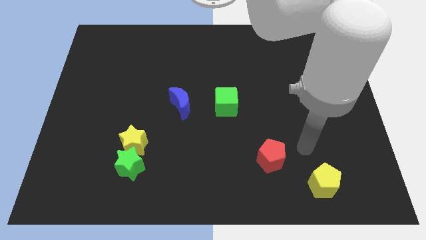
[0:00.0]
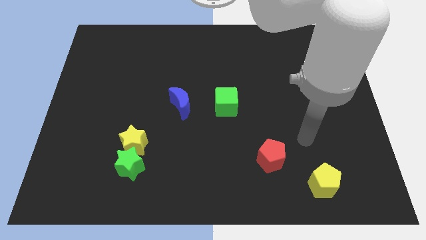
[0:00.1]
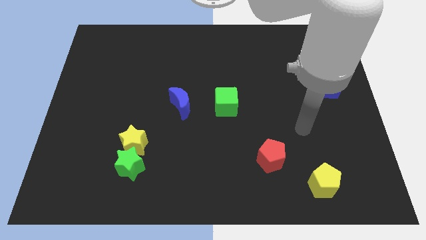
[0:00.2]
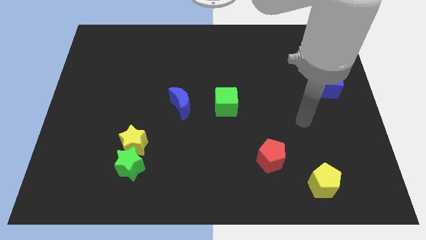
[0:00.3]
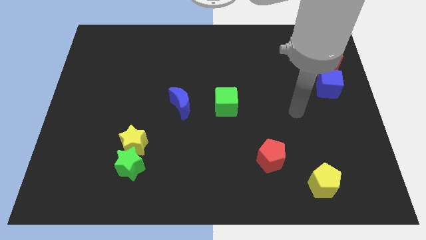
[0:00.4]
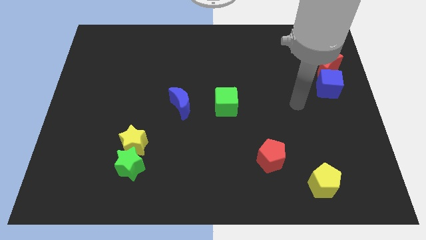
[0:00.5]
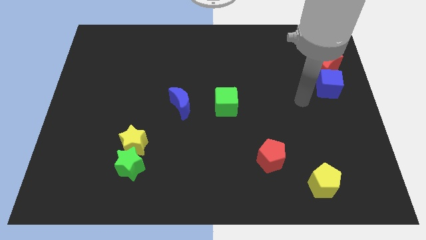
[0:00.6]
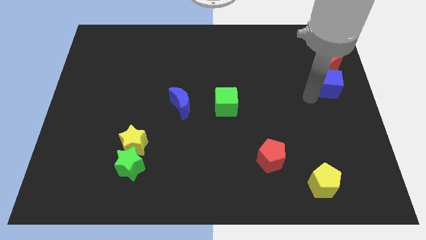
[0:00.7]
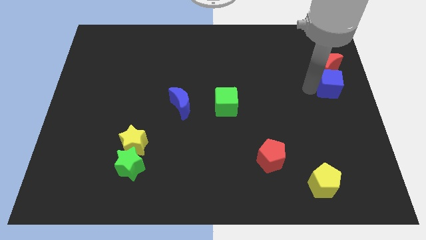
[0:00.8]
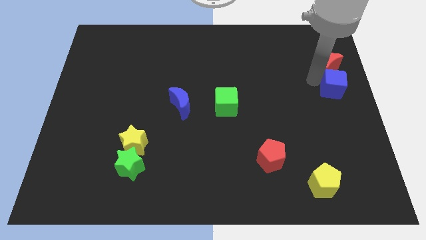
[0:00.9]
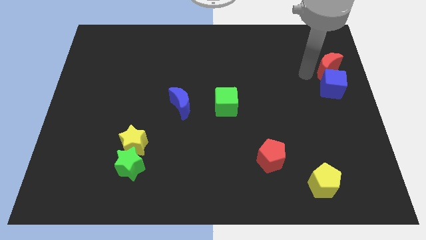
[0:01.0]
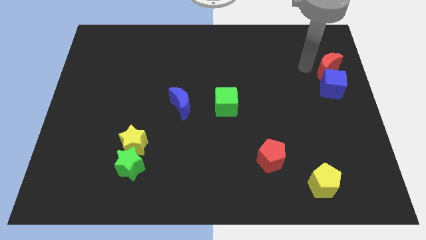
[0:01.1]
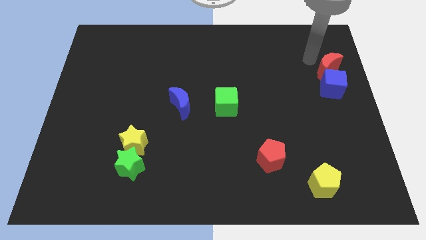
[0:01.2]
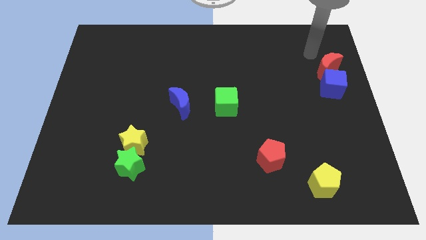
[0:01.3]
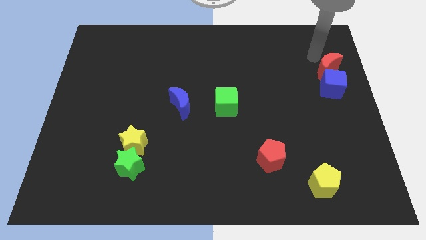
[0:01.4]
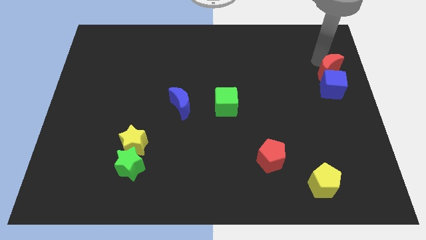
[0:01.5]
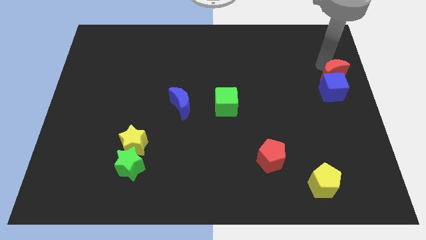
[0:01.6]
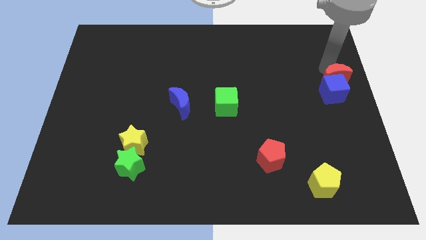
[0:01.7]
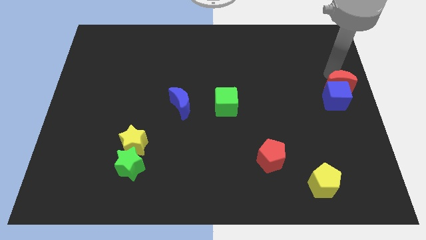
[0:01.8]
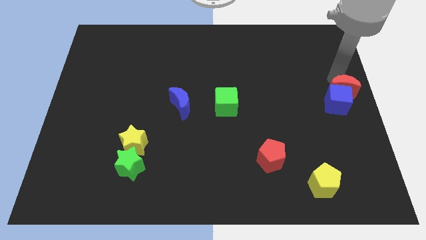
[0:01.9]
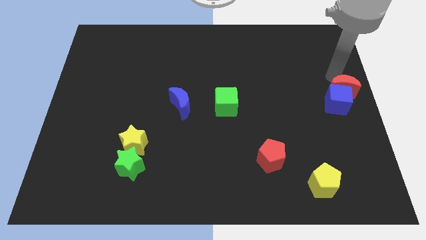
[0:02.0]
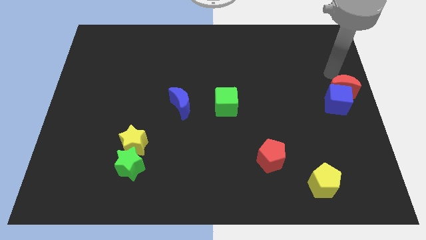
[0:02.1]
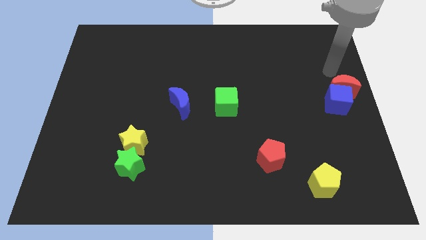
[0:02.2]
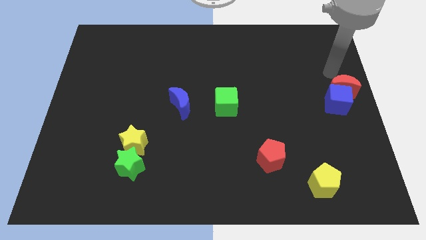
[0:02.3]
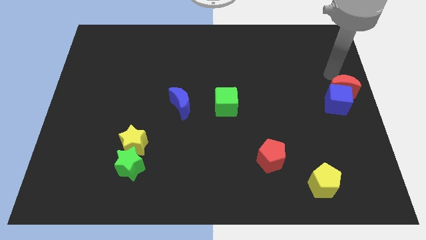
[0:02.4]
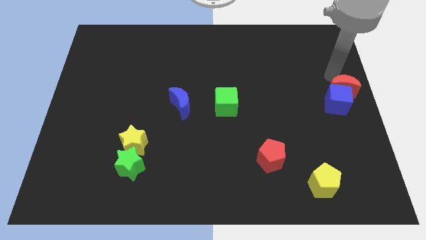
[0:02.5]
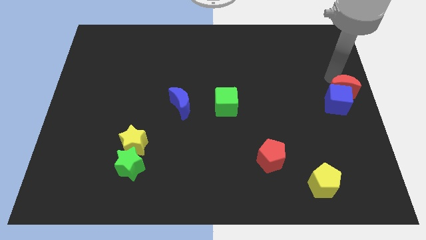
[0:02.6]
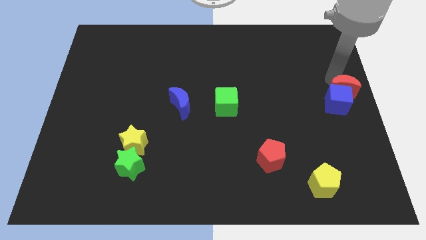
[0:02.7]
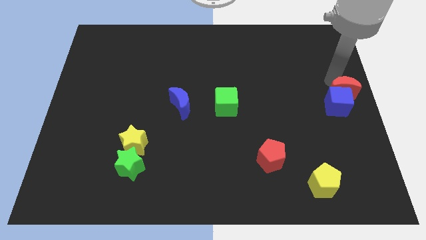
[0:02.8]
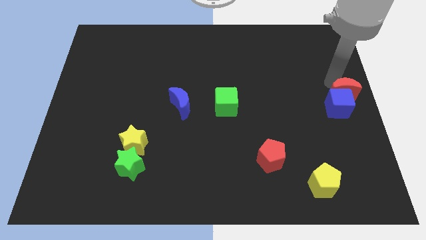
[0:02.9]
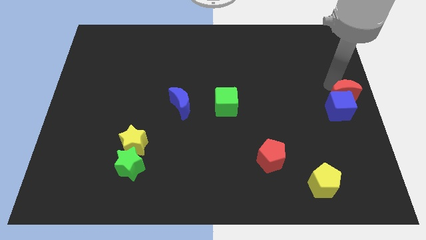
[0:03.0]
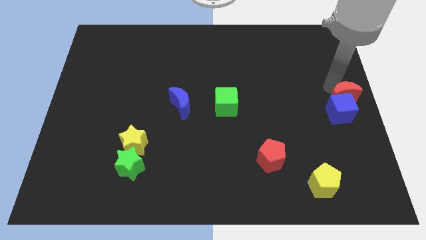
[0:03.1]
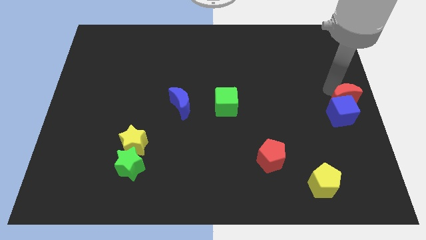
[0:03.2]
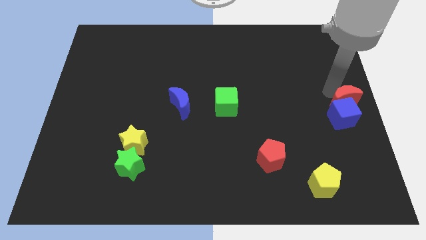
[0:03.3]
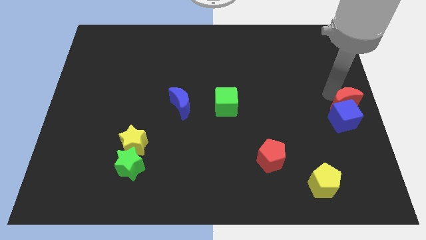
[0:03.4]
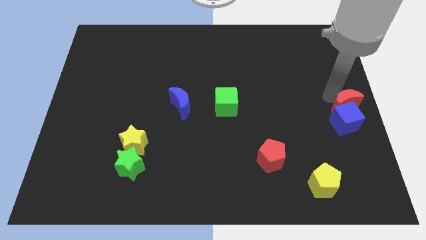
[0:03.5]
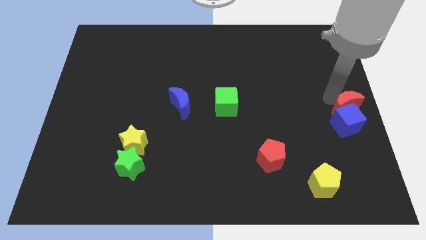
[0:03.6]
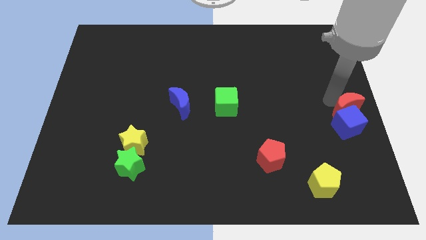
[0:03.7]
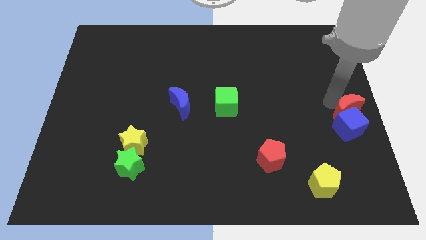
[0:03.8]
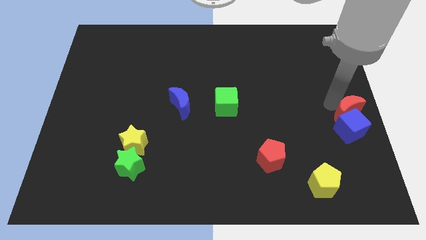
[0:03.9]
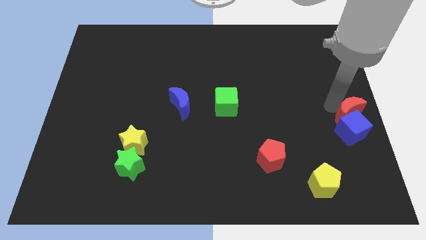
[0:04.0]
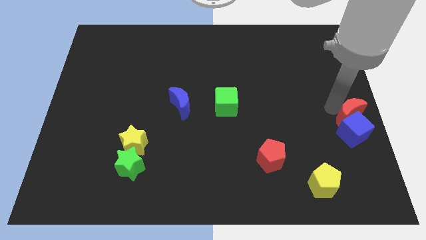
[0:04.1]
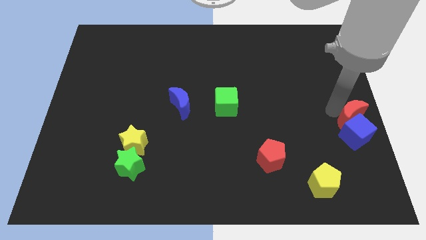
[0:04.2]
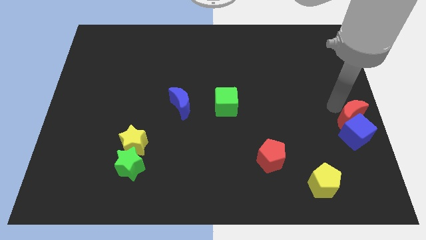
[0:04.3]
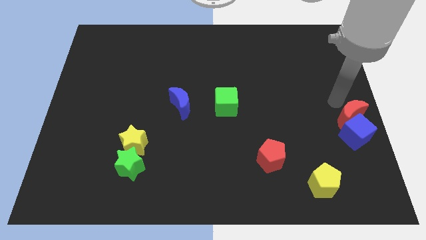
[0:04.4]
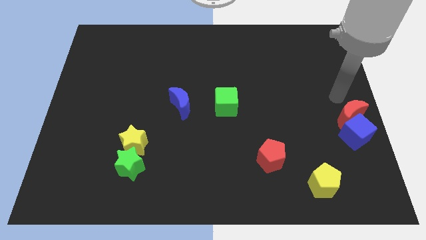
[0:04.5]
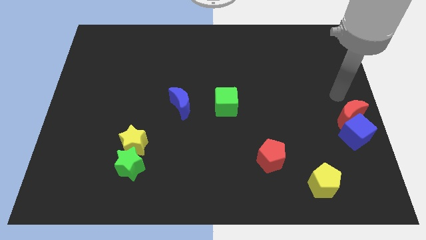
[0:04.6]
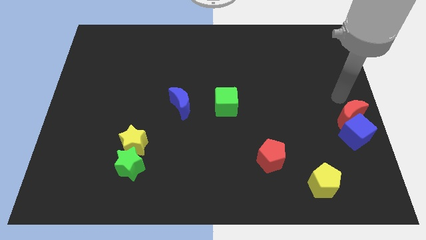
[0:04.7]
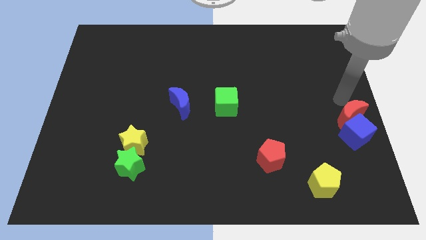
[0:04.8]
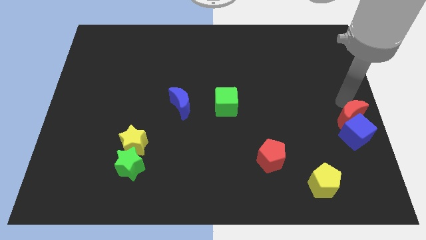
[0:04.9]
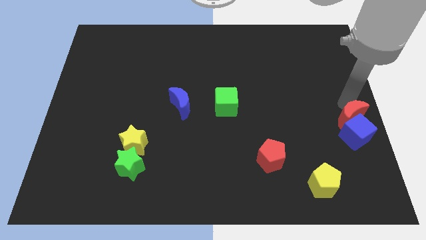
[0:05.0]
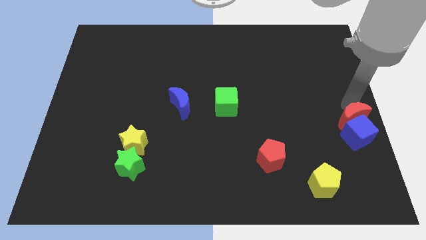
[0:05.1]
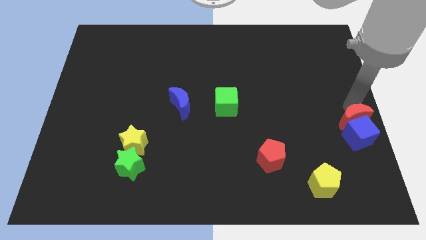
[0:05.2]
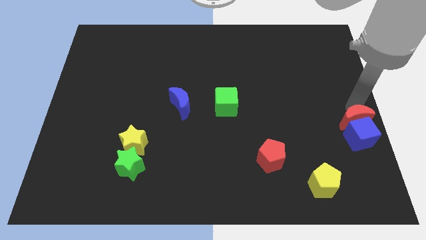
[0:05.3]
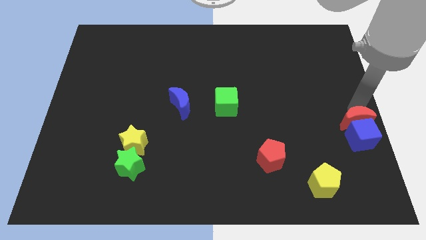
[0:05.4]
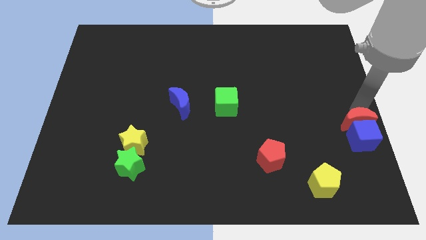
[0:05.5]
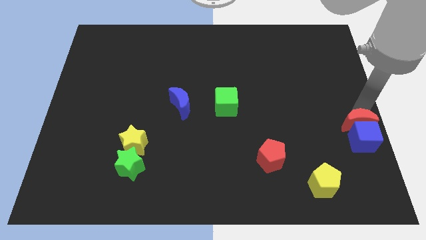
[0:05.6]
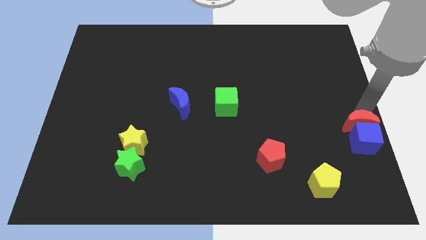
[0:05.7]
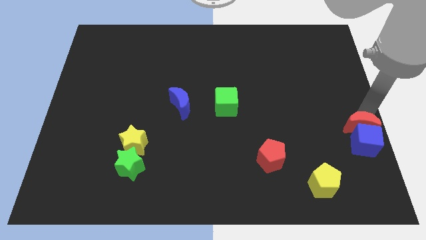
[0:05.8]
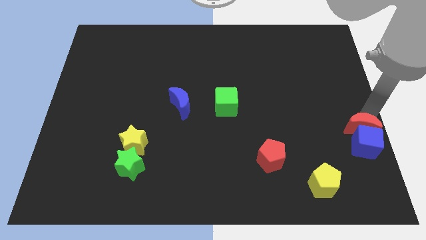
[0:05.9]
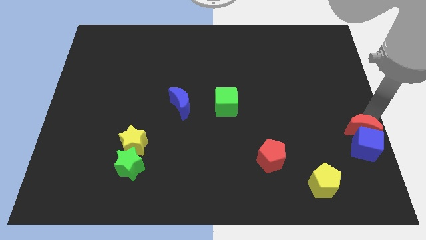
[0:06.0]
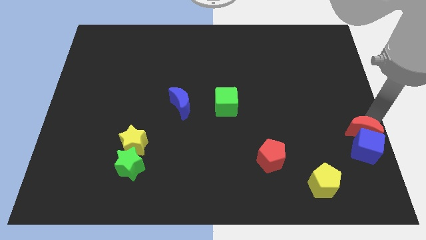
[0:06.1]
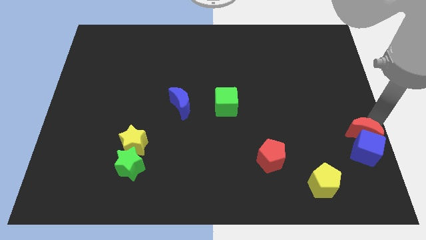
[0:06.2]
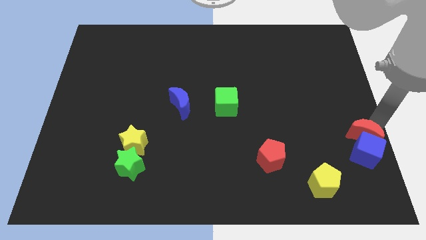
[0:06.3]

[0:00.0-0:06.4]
slide the red moon down

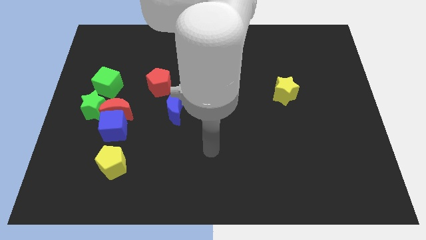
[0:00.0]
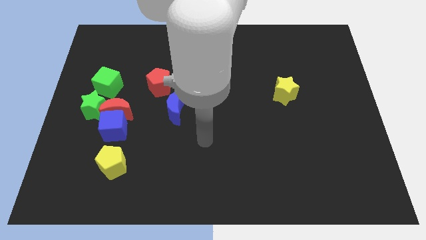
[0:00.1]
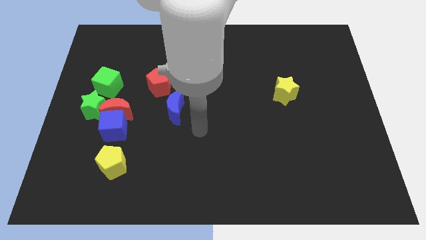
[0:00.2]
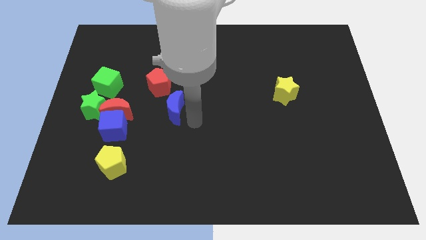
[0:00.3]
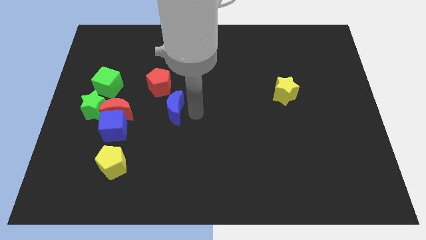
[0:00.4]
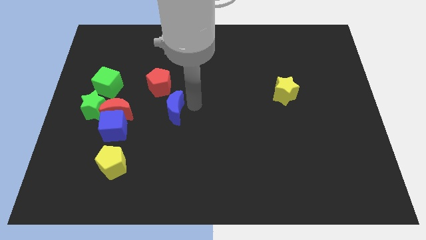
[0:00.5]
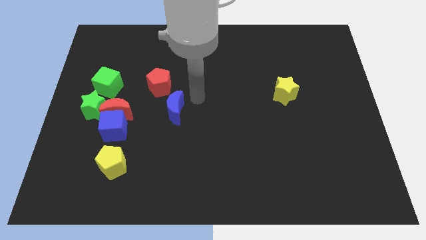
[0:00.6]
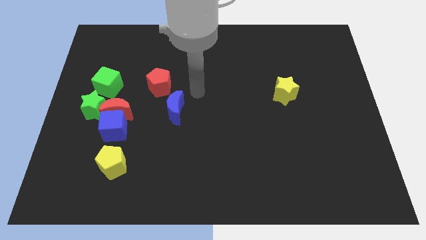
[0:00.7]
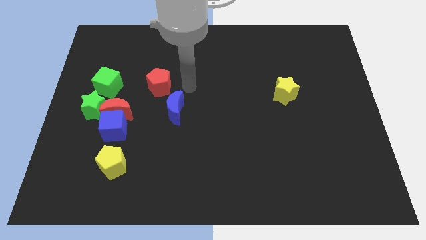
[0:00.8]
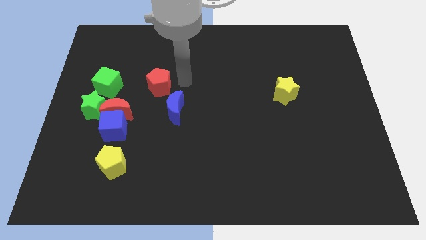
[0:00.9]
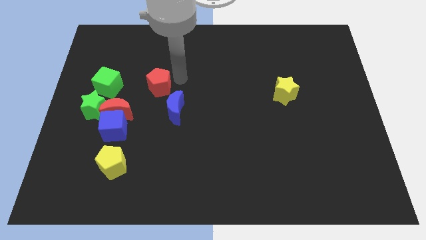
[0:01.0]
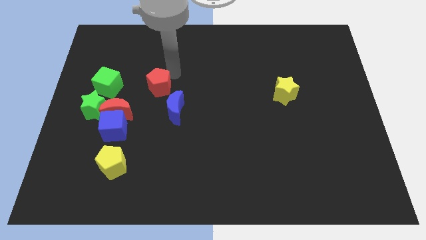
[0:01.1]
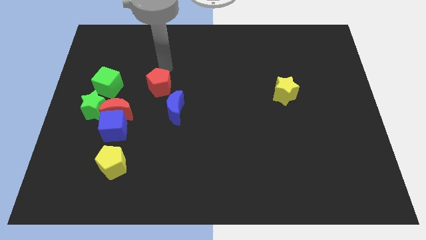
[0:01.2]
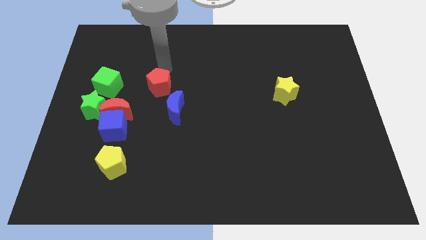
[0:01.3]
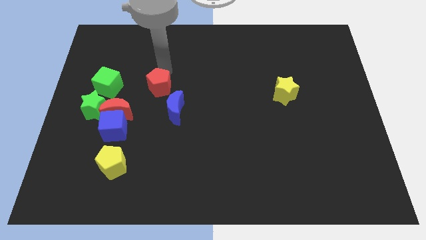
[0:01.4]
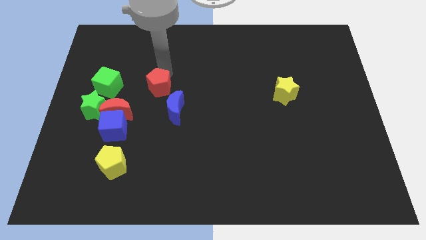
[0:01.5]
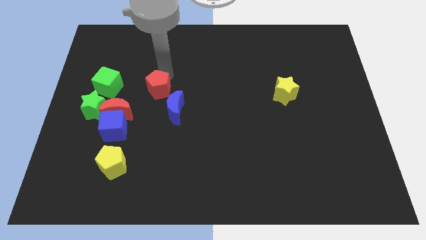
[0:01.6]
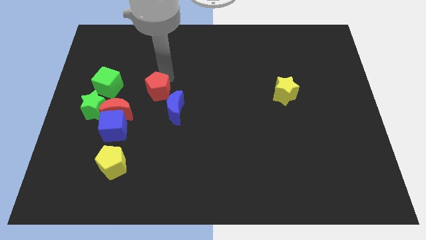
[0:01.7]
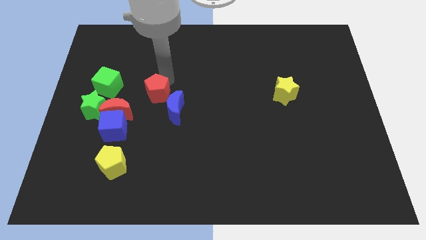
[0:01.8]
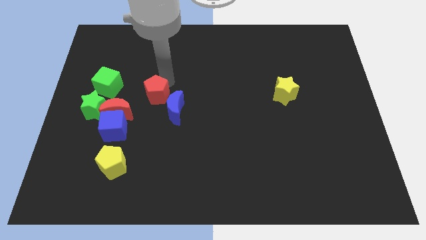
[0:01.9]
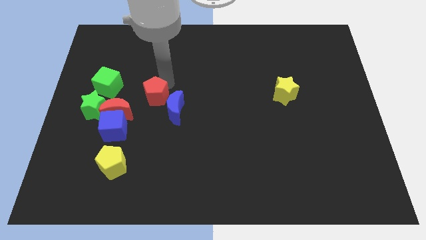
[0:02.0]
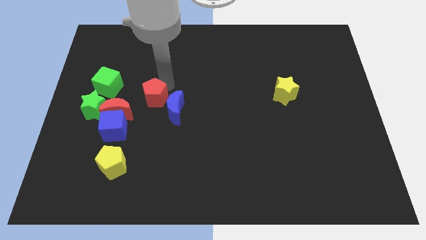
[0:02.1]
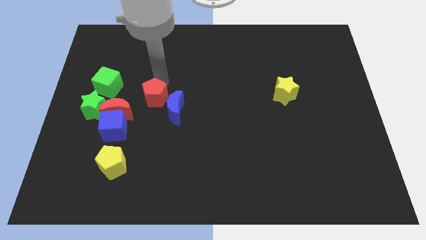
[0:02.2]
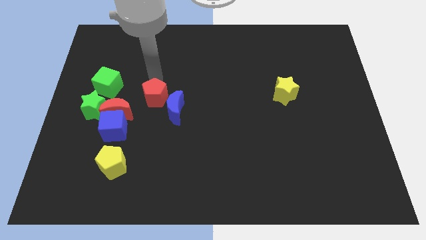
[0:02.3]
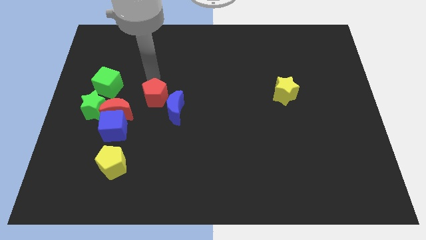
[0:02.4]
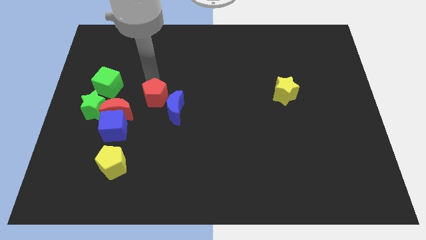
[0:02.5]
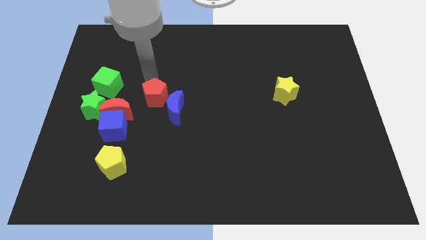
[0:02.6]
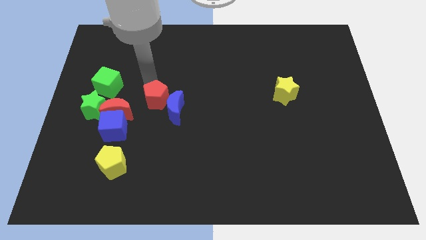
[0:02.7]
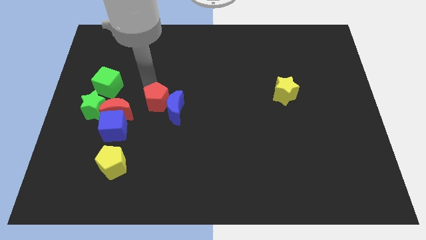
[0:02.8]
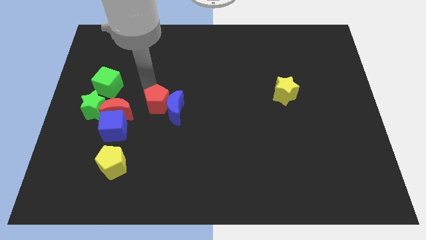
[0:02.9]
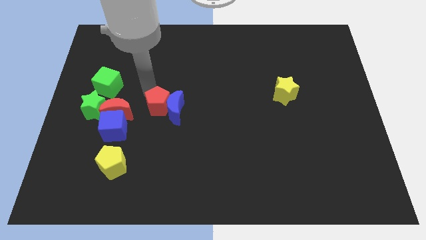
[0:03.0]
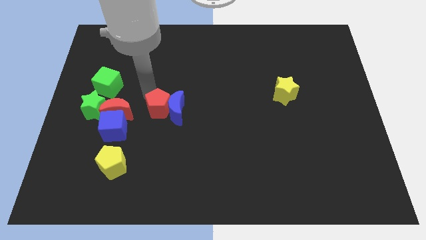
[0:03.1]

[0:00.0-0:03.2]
slide the red pentagon somewhat downwards
